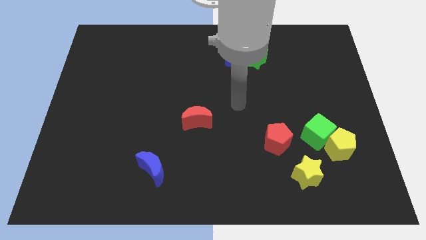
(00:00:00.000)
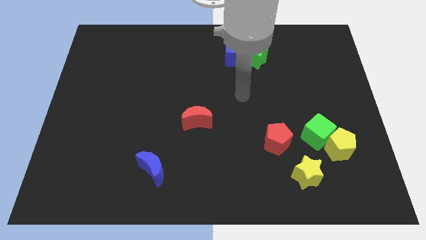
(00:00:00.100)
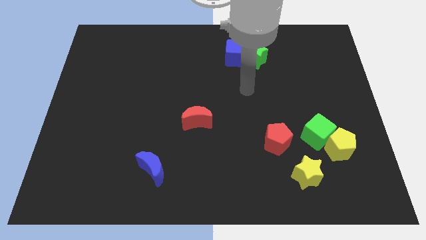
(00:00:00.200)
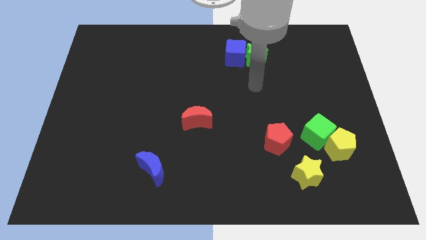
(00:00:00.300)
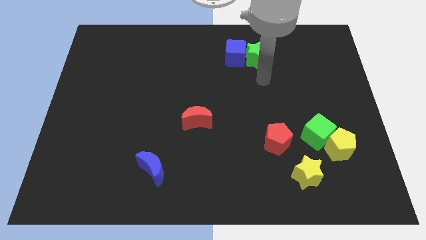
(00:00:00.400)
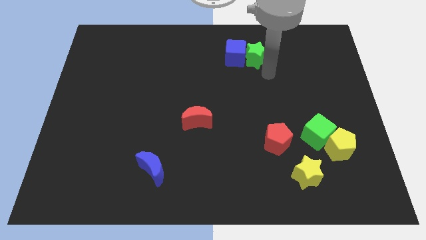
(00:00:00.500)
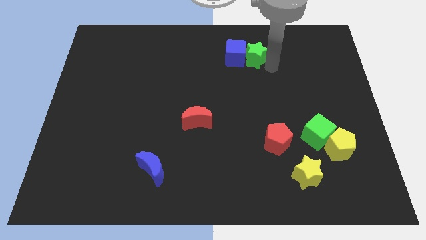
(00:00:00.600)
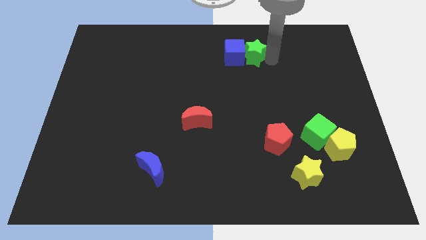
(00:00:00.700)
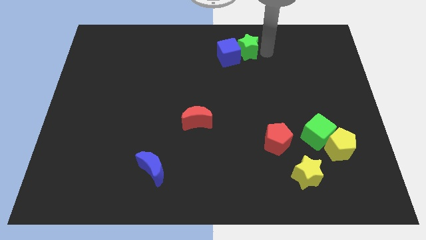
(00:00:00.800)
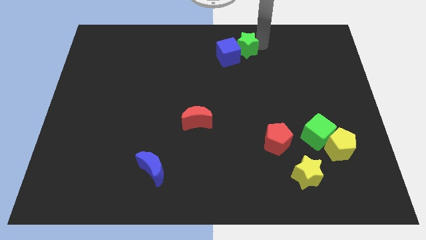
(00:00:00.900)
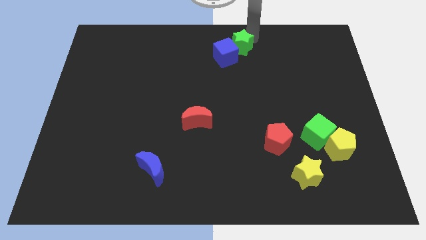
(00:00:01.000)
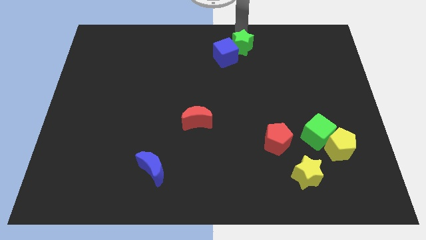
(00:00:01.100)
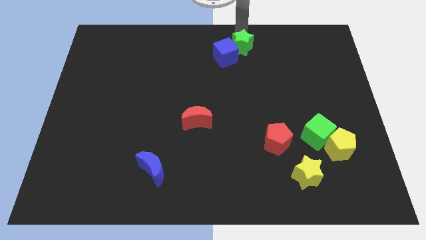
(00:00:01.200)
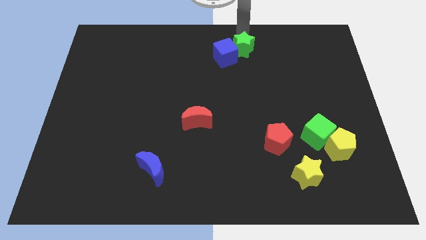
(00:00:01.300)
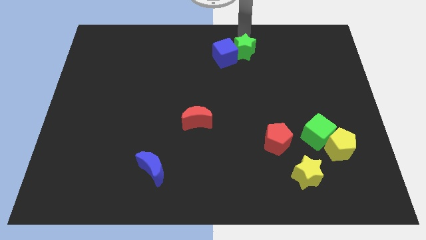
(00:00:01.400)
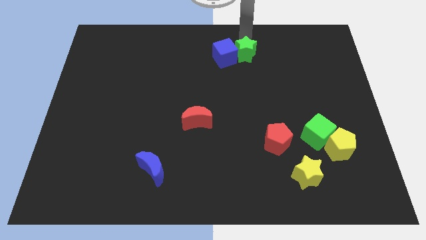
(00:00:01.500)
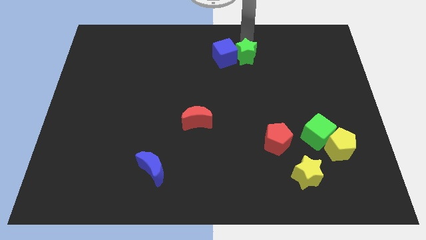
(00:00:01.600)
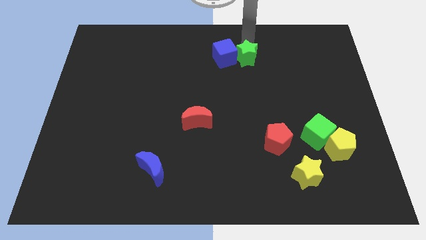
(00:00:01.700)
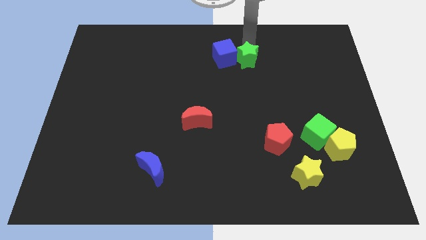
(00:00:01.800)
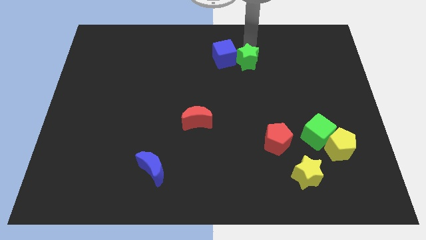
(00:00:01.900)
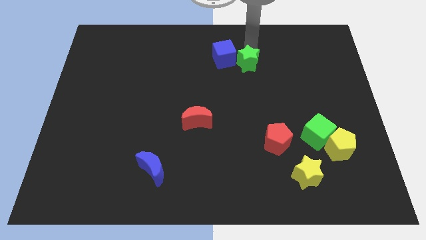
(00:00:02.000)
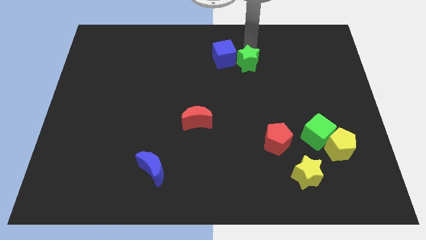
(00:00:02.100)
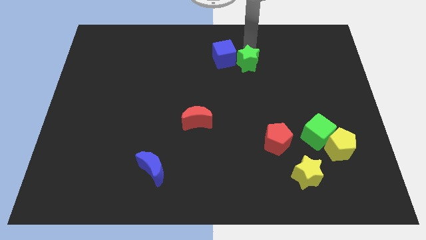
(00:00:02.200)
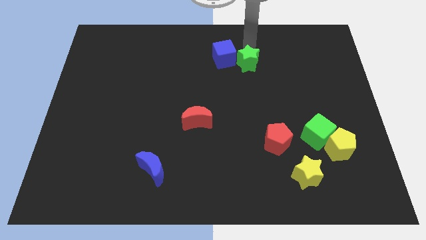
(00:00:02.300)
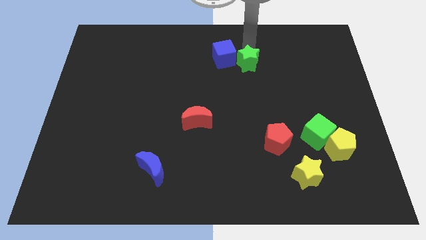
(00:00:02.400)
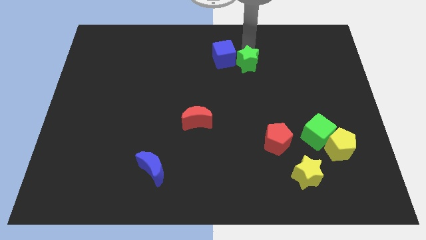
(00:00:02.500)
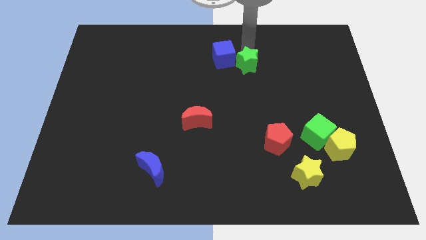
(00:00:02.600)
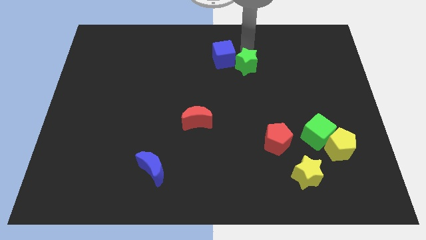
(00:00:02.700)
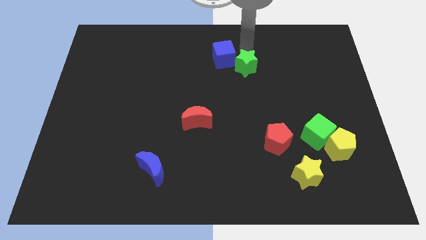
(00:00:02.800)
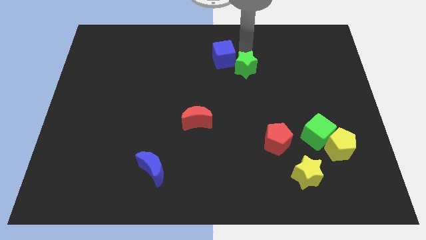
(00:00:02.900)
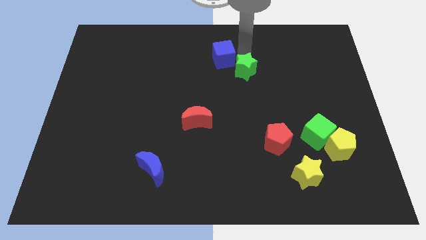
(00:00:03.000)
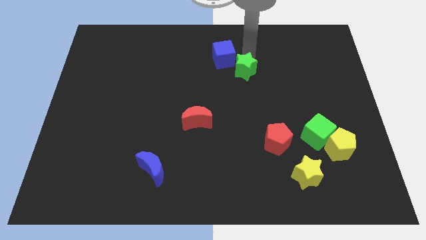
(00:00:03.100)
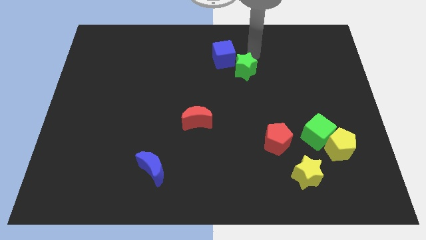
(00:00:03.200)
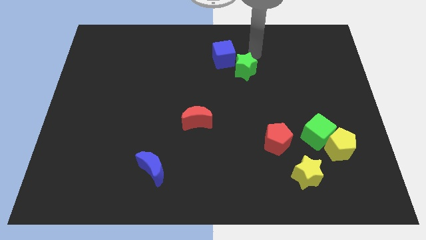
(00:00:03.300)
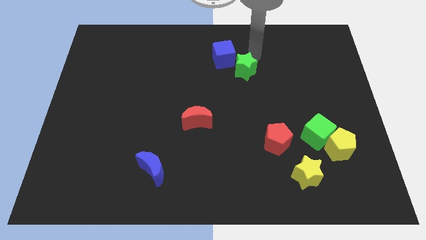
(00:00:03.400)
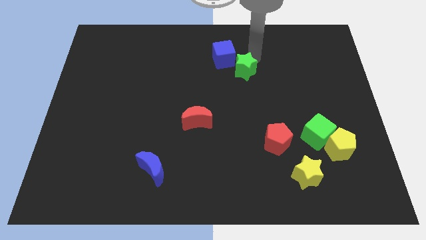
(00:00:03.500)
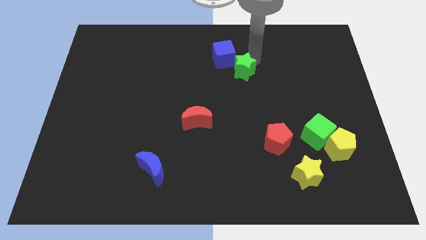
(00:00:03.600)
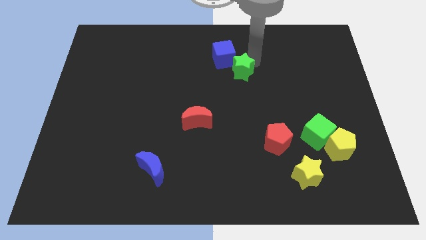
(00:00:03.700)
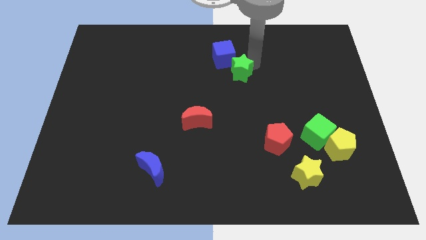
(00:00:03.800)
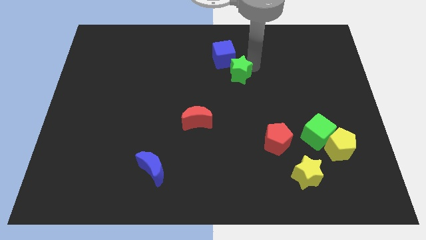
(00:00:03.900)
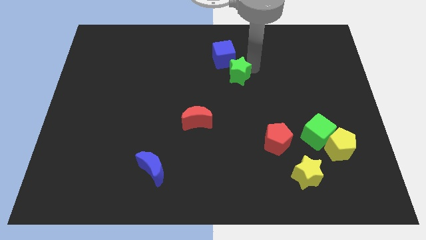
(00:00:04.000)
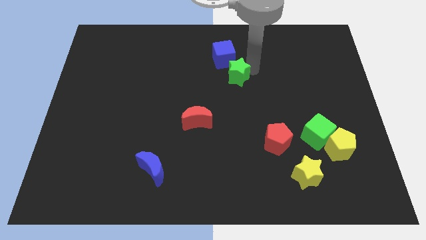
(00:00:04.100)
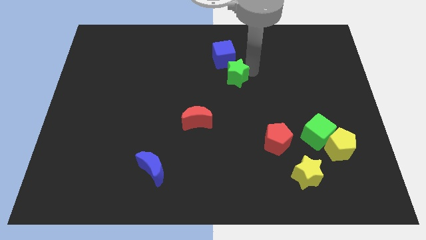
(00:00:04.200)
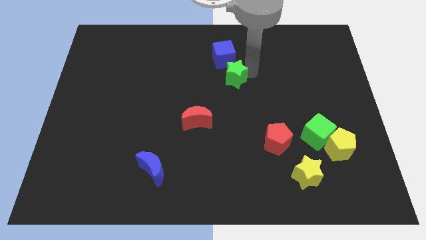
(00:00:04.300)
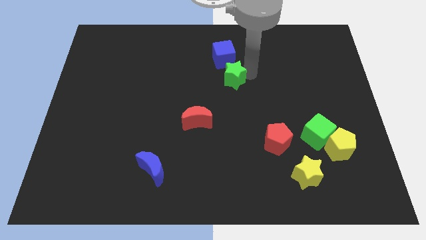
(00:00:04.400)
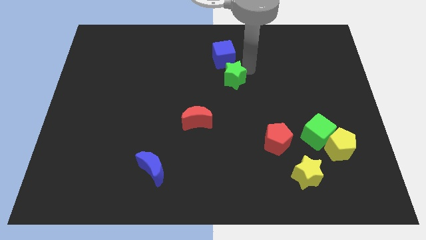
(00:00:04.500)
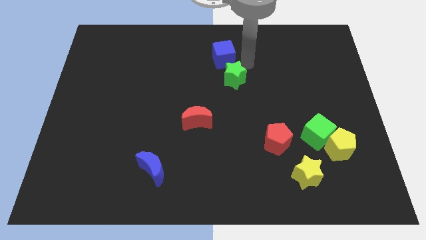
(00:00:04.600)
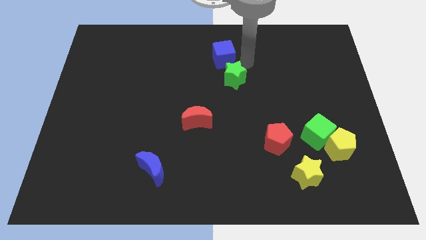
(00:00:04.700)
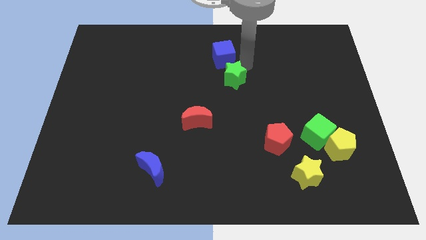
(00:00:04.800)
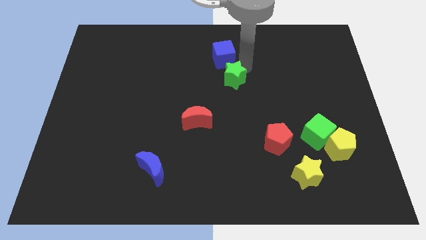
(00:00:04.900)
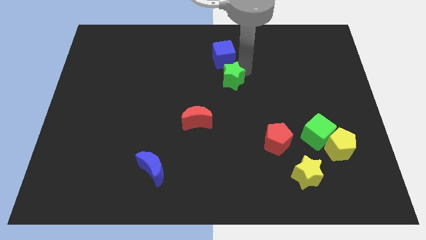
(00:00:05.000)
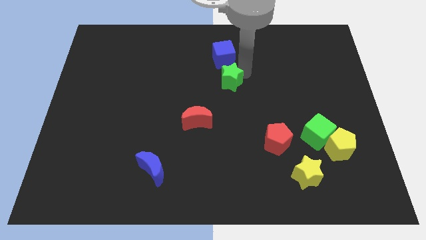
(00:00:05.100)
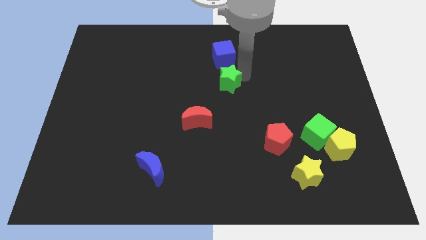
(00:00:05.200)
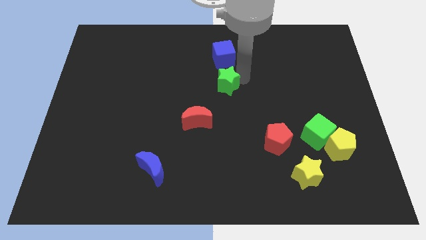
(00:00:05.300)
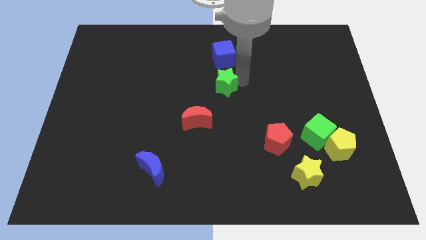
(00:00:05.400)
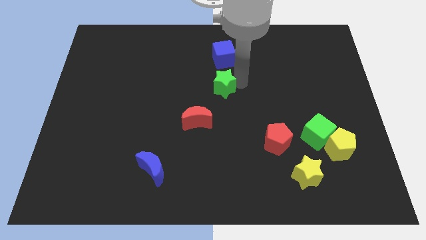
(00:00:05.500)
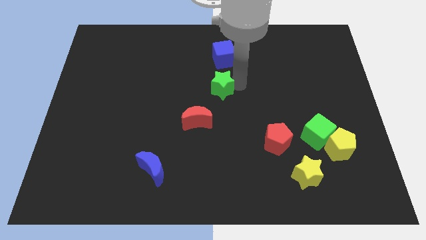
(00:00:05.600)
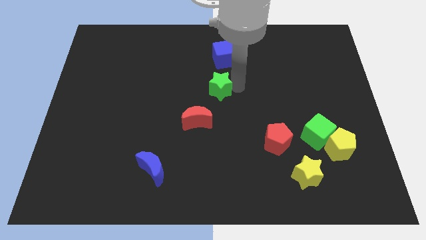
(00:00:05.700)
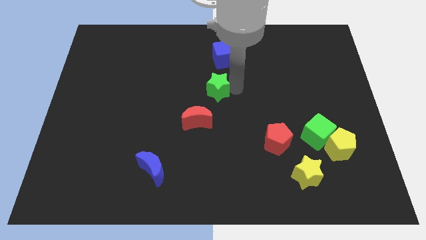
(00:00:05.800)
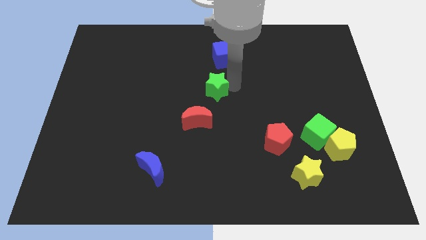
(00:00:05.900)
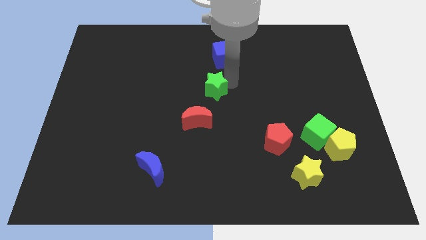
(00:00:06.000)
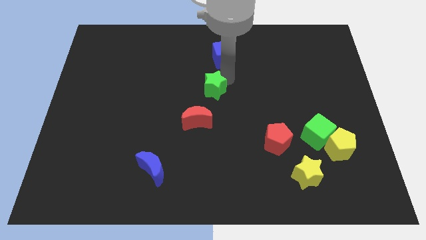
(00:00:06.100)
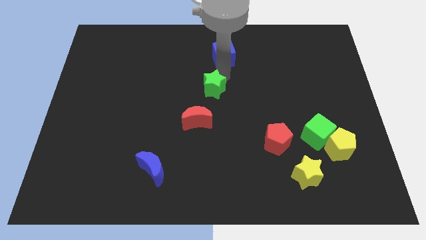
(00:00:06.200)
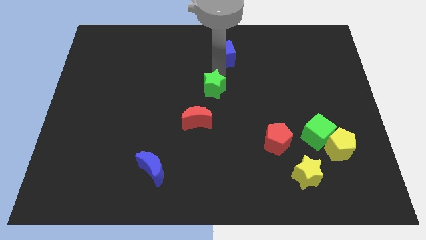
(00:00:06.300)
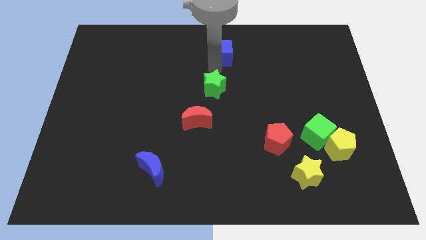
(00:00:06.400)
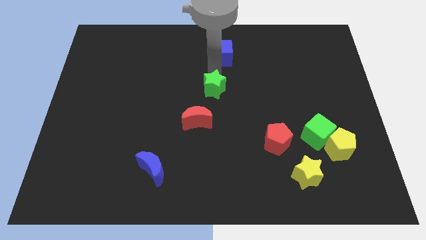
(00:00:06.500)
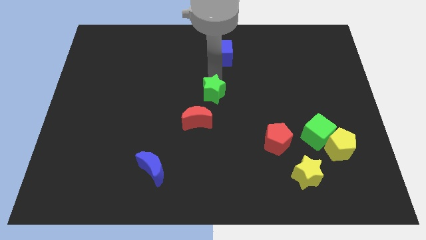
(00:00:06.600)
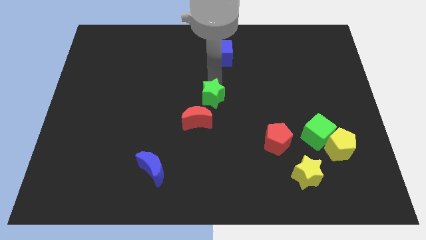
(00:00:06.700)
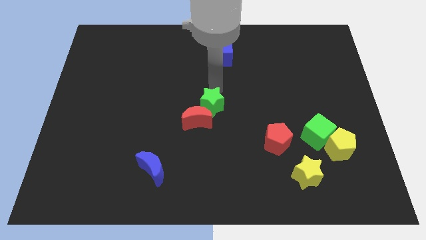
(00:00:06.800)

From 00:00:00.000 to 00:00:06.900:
slide the green star to the red moon

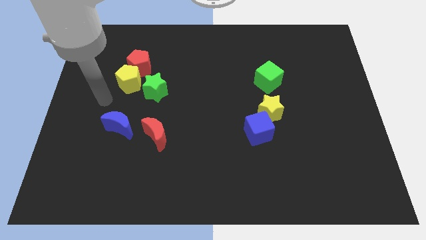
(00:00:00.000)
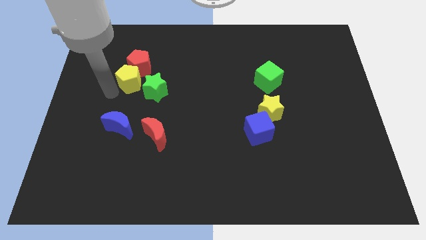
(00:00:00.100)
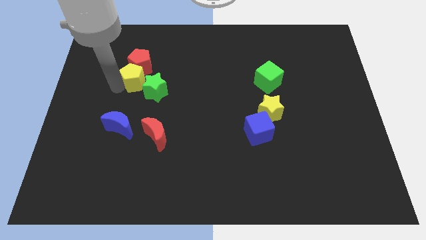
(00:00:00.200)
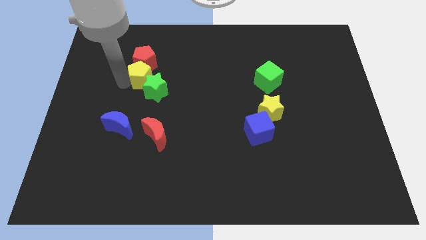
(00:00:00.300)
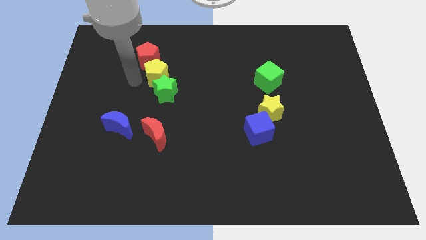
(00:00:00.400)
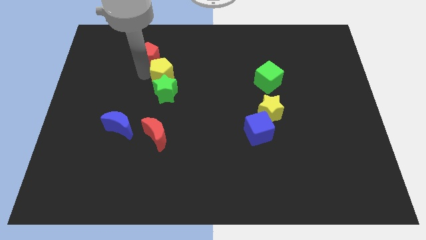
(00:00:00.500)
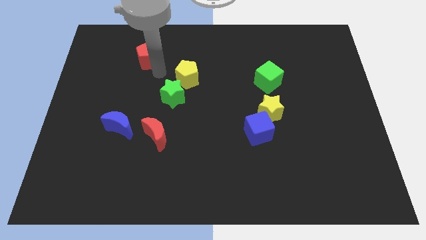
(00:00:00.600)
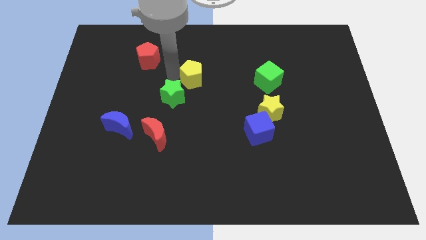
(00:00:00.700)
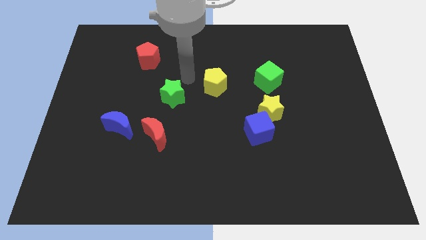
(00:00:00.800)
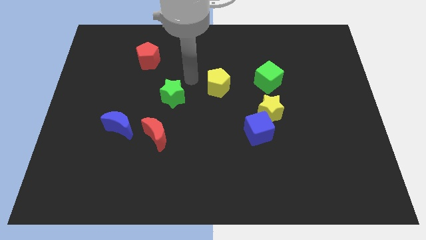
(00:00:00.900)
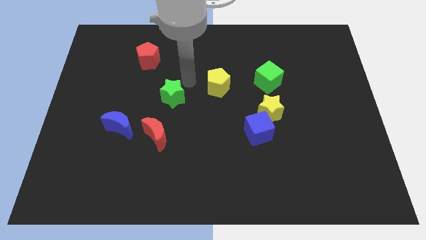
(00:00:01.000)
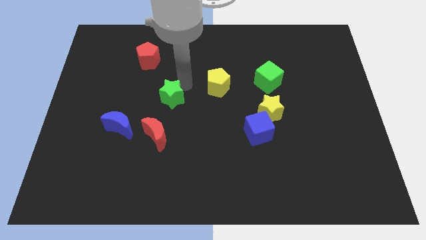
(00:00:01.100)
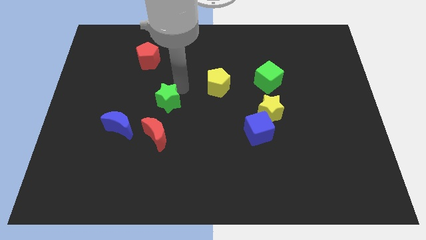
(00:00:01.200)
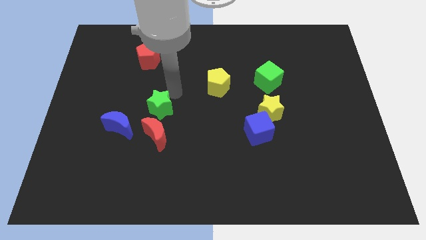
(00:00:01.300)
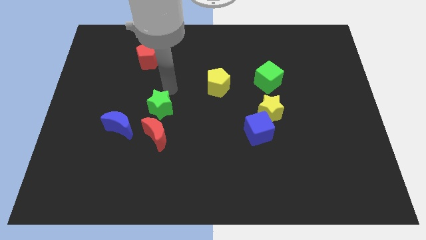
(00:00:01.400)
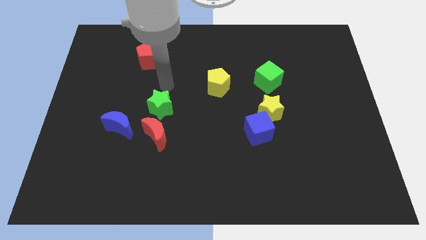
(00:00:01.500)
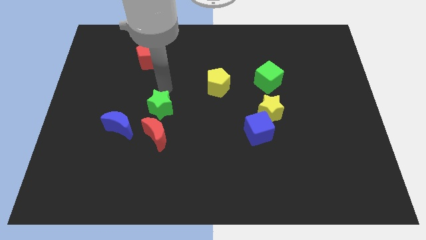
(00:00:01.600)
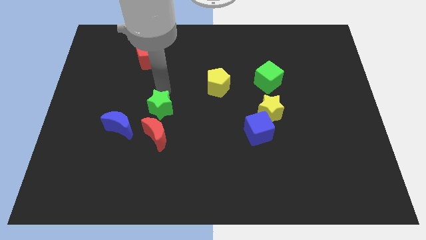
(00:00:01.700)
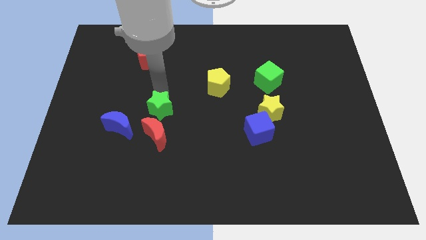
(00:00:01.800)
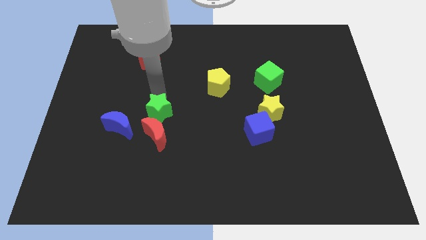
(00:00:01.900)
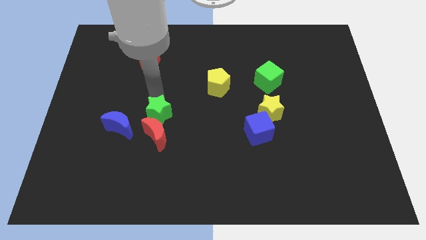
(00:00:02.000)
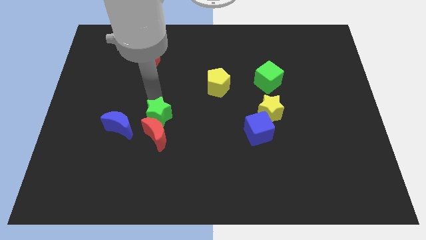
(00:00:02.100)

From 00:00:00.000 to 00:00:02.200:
push the green star close to the red moon
